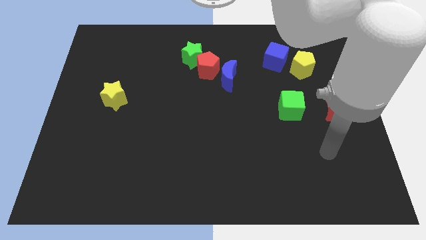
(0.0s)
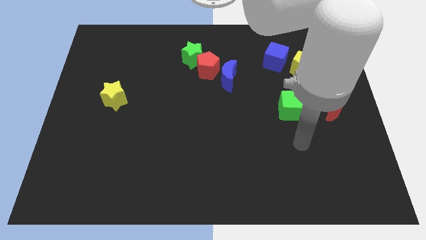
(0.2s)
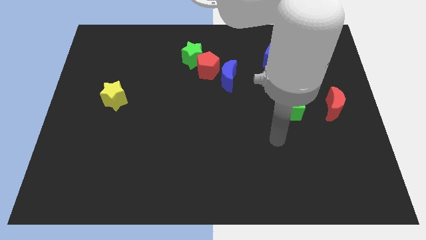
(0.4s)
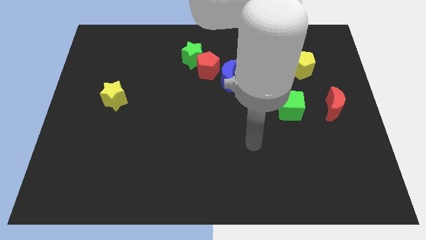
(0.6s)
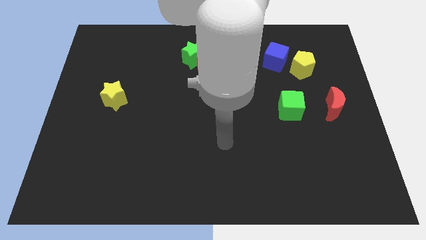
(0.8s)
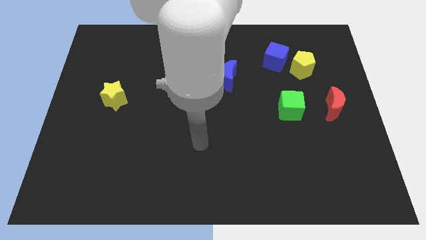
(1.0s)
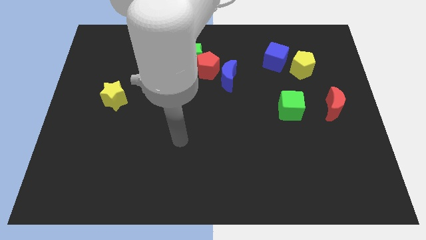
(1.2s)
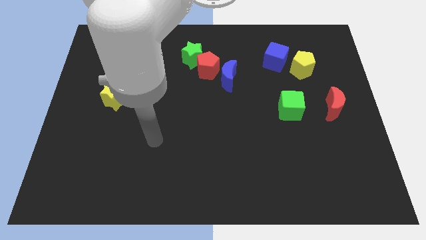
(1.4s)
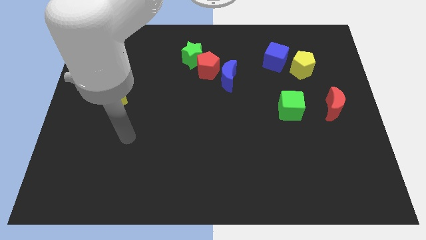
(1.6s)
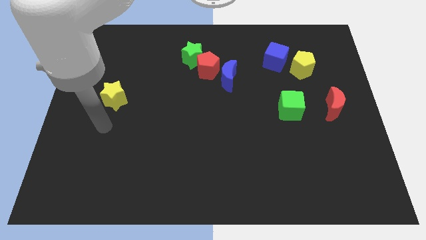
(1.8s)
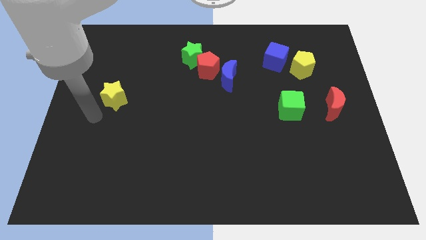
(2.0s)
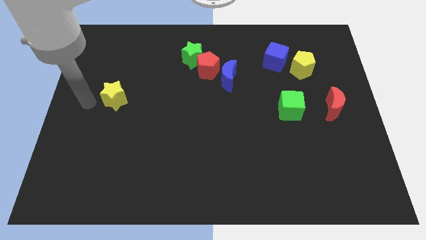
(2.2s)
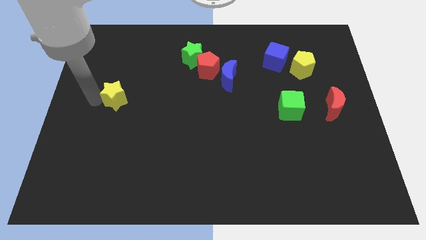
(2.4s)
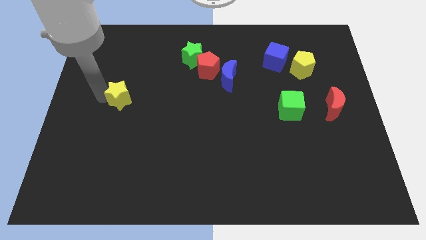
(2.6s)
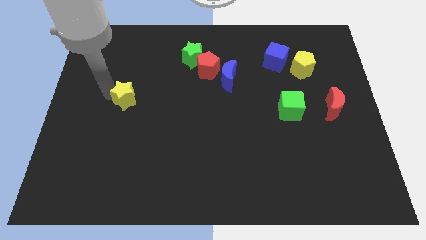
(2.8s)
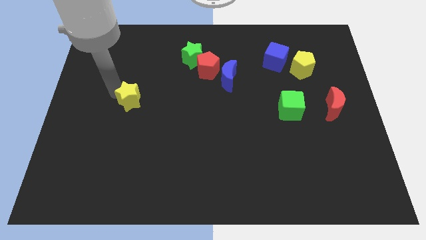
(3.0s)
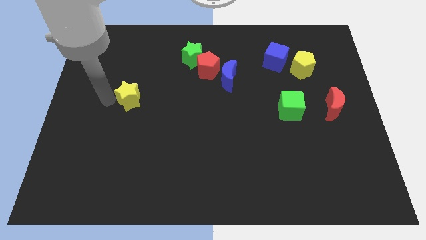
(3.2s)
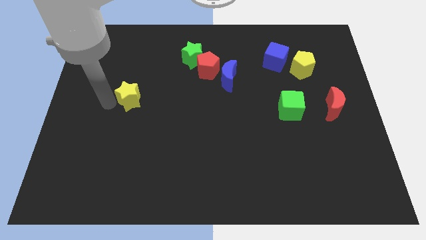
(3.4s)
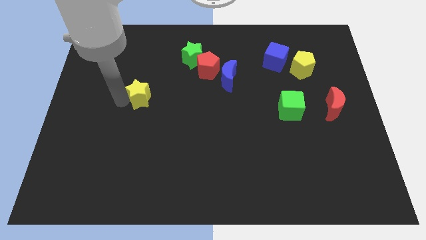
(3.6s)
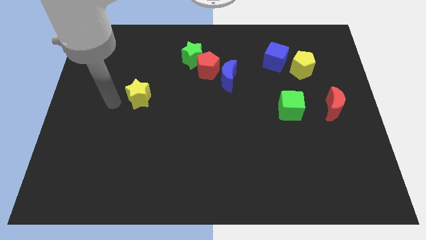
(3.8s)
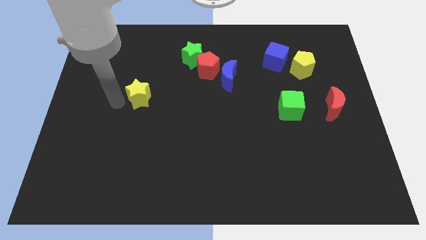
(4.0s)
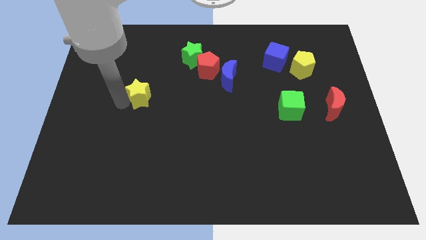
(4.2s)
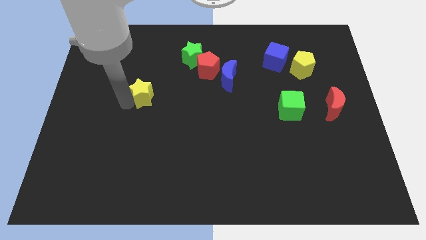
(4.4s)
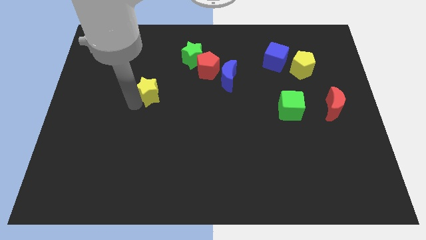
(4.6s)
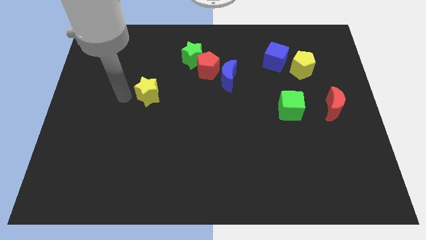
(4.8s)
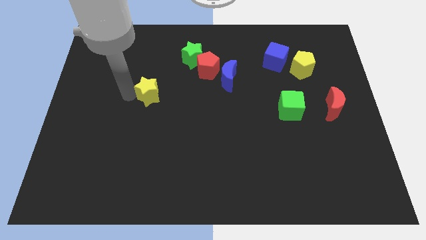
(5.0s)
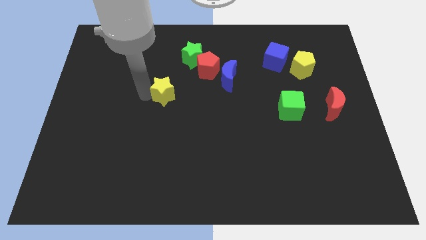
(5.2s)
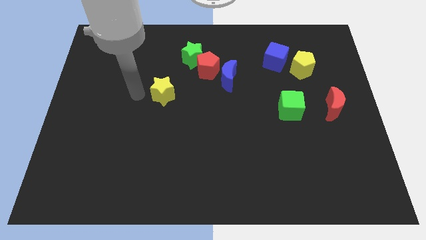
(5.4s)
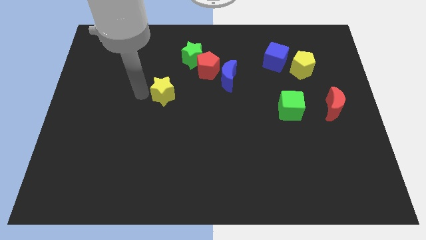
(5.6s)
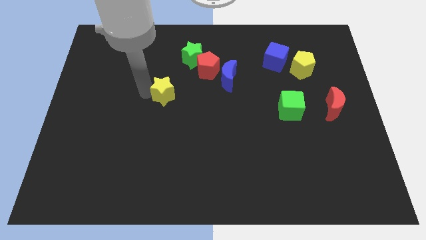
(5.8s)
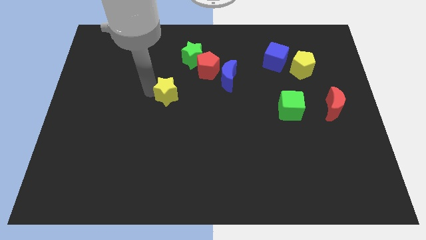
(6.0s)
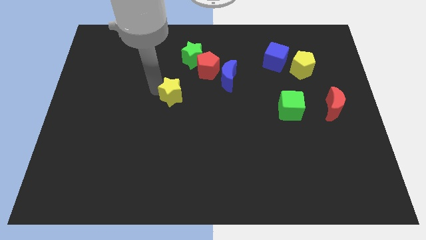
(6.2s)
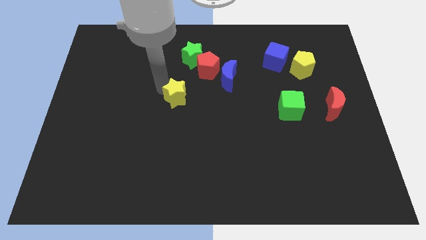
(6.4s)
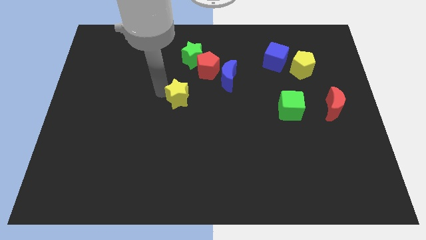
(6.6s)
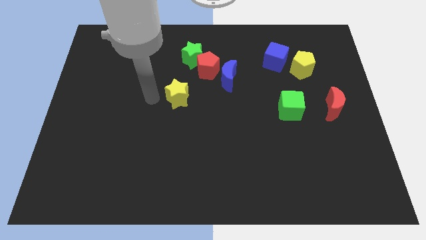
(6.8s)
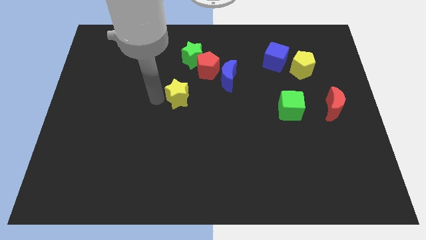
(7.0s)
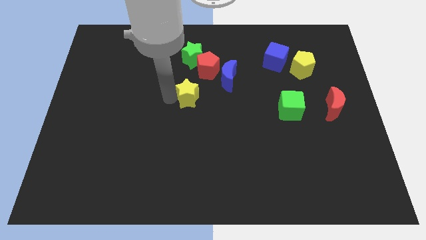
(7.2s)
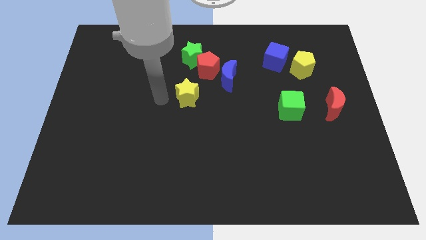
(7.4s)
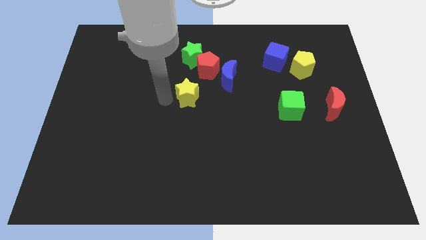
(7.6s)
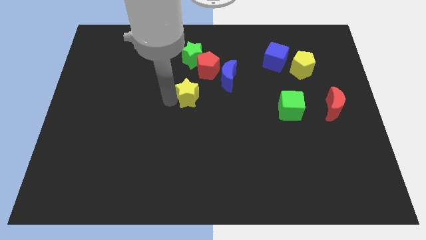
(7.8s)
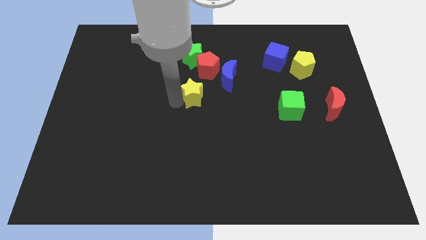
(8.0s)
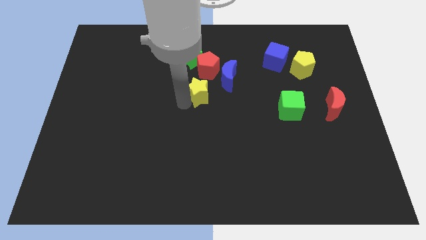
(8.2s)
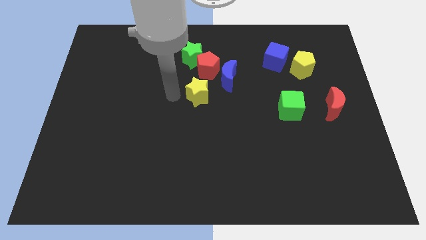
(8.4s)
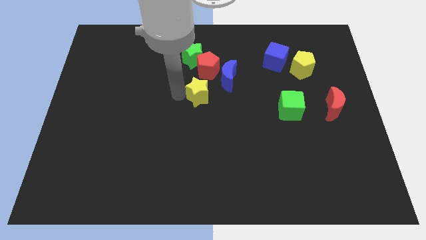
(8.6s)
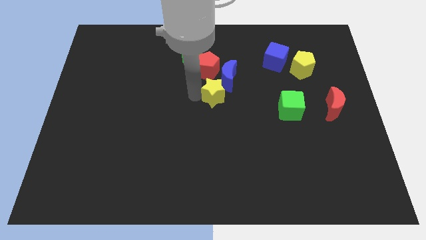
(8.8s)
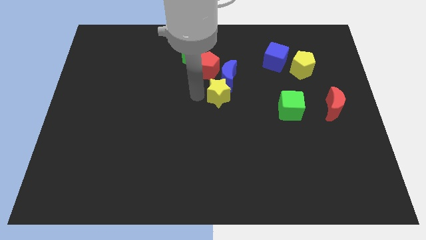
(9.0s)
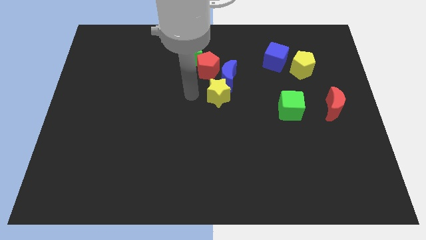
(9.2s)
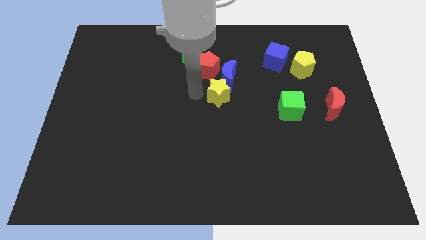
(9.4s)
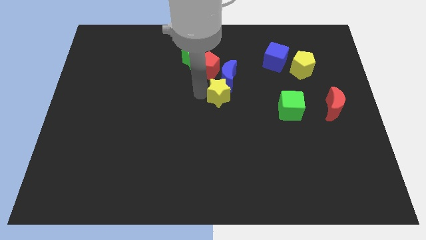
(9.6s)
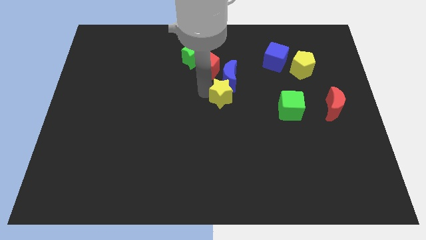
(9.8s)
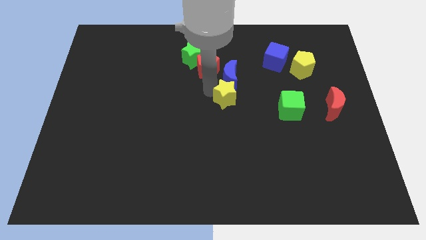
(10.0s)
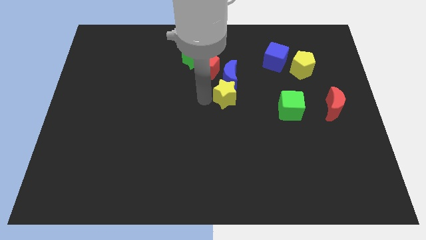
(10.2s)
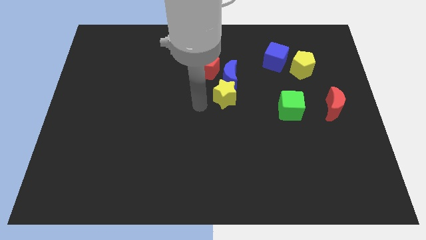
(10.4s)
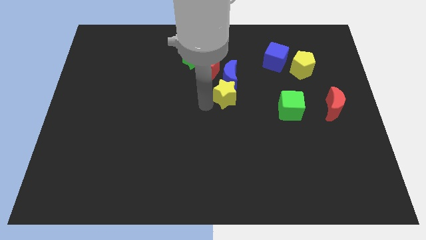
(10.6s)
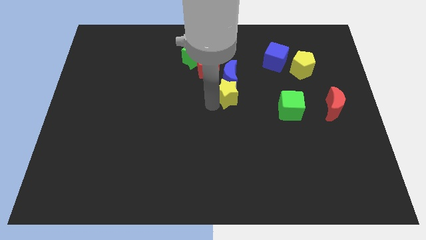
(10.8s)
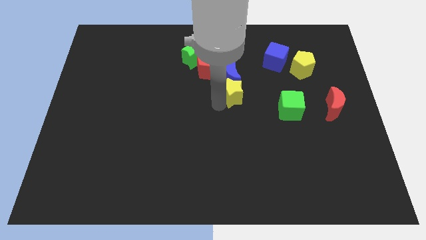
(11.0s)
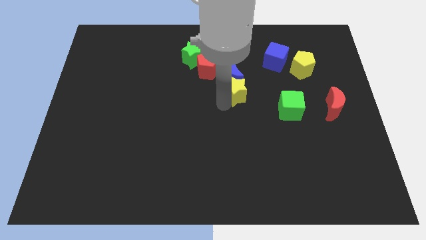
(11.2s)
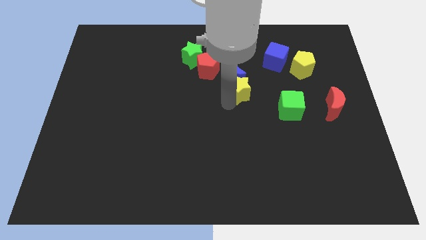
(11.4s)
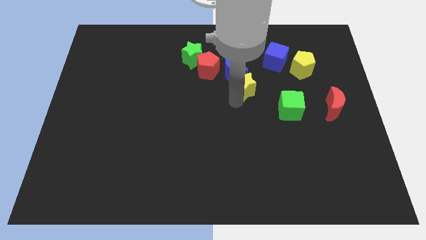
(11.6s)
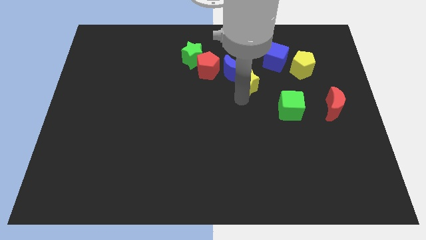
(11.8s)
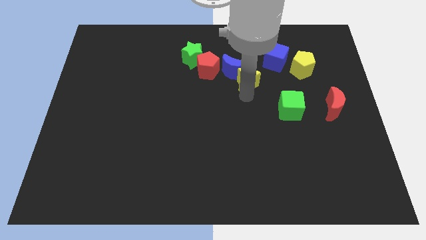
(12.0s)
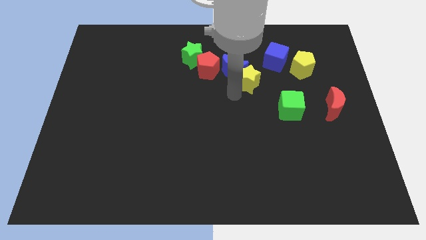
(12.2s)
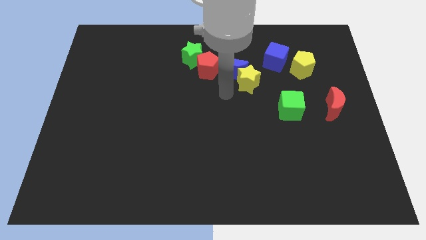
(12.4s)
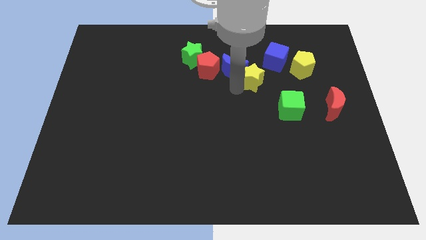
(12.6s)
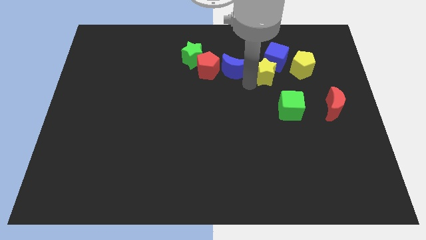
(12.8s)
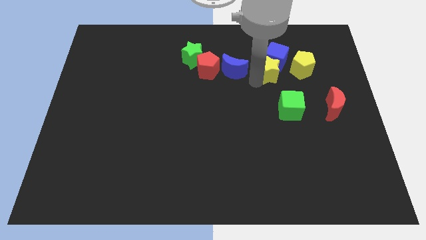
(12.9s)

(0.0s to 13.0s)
slide the yellow star close to the blue cube
